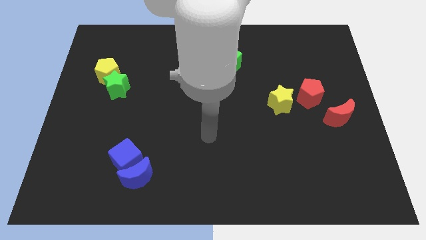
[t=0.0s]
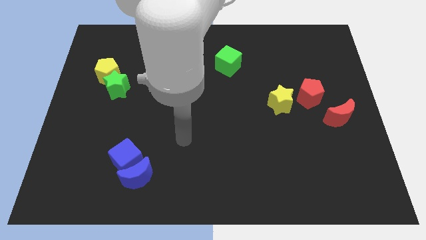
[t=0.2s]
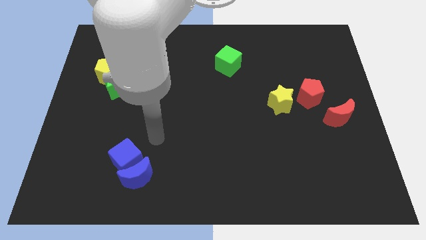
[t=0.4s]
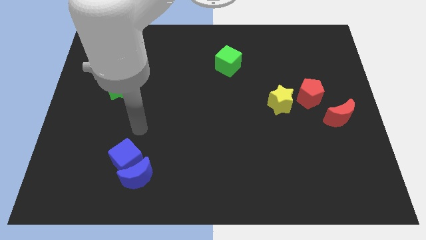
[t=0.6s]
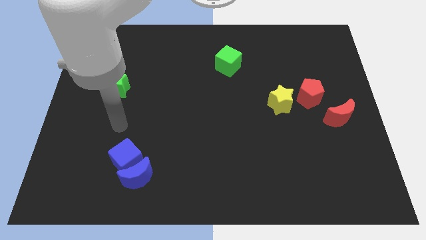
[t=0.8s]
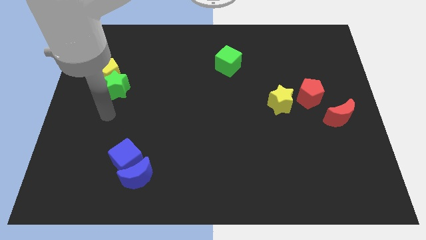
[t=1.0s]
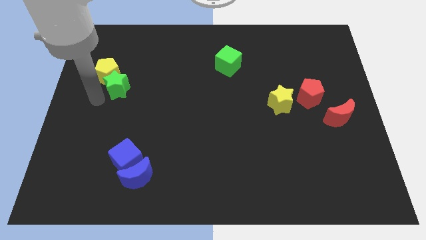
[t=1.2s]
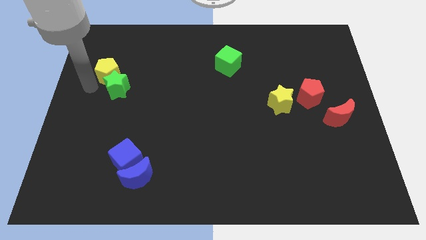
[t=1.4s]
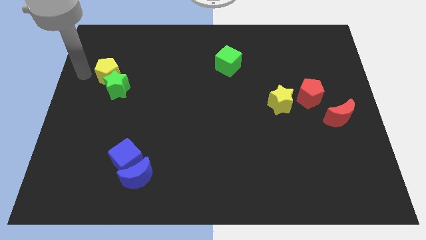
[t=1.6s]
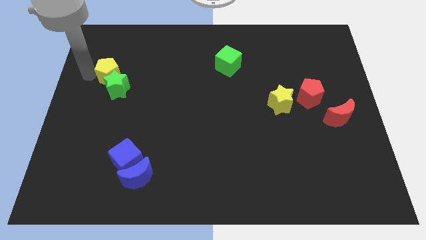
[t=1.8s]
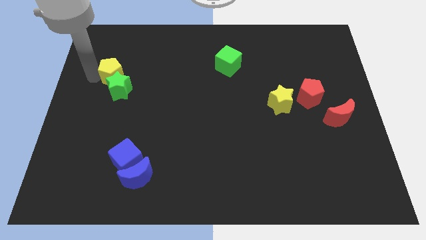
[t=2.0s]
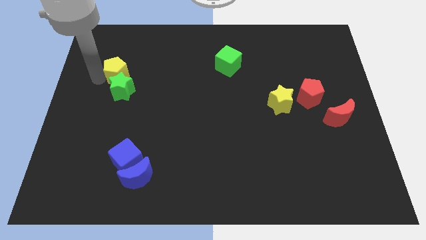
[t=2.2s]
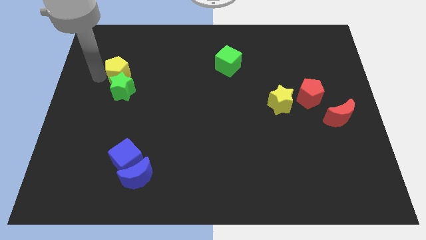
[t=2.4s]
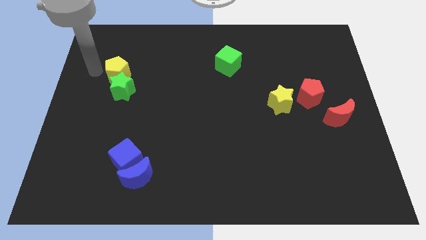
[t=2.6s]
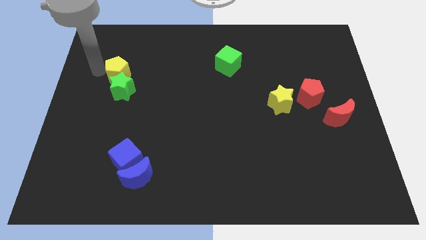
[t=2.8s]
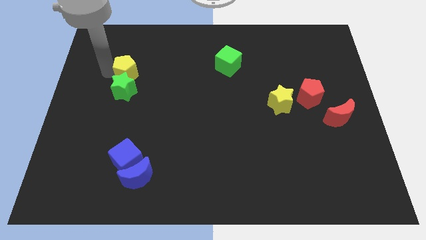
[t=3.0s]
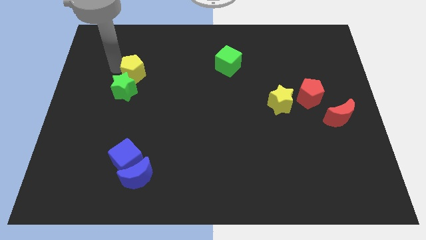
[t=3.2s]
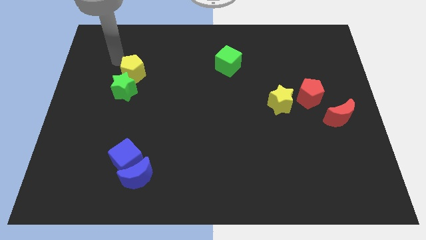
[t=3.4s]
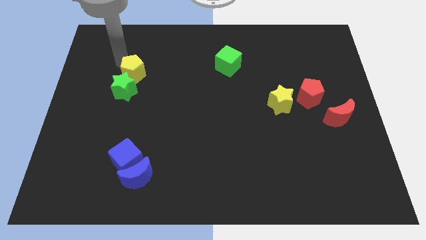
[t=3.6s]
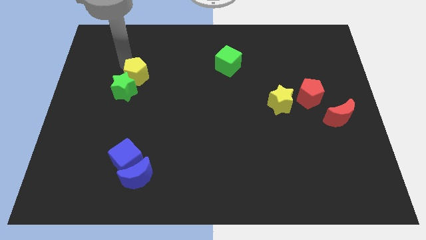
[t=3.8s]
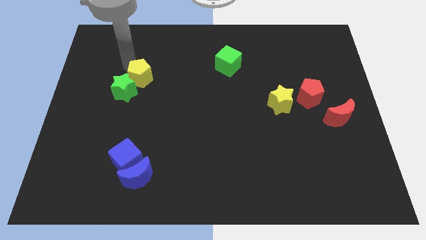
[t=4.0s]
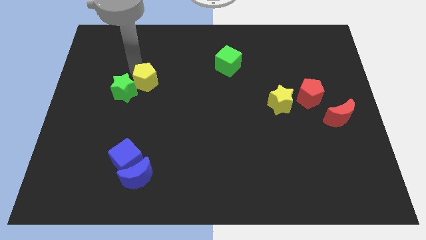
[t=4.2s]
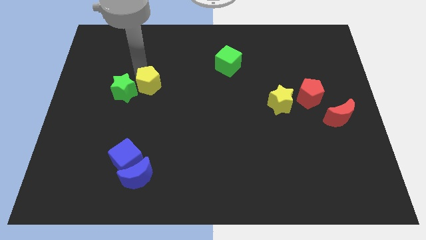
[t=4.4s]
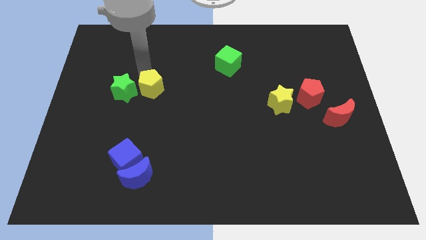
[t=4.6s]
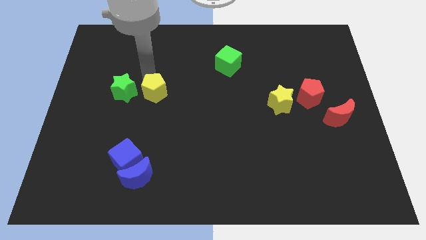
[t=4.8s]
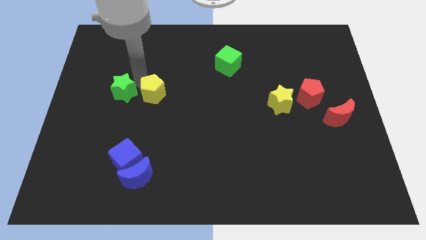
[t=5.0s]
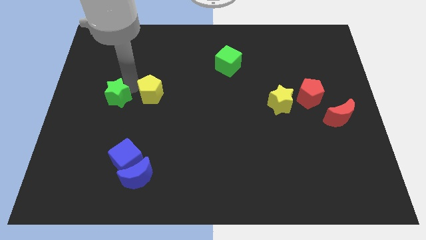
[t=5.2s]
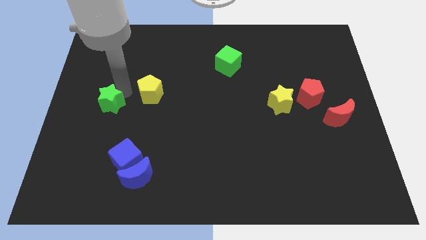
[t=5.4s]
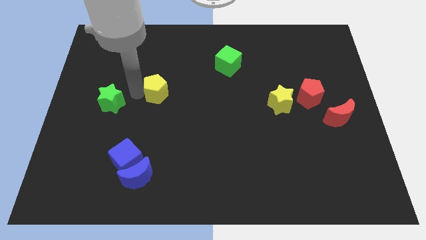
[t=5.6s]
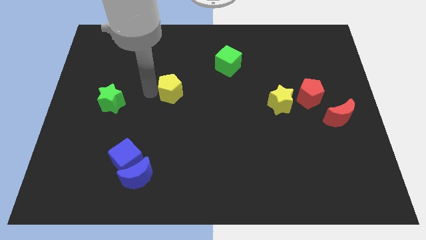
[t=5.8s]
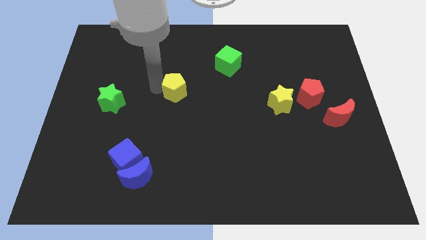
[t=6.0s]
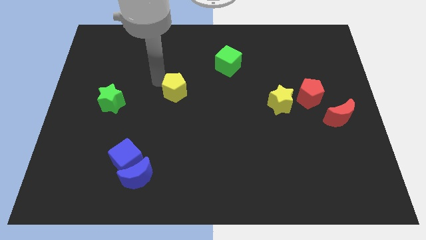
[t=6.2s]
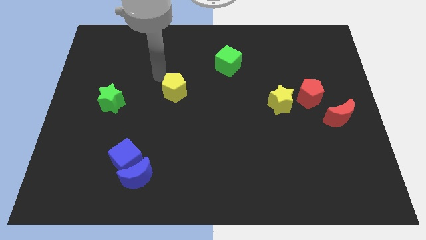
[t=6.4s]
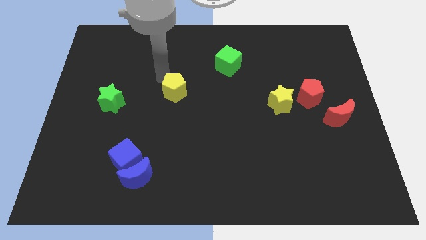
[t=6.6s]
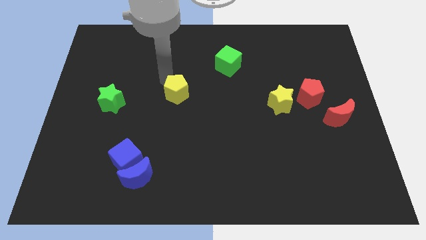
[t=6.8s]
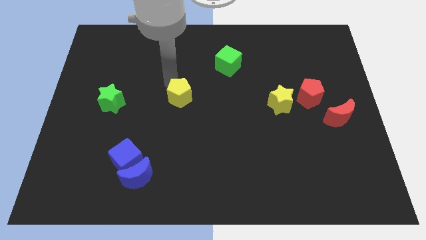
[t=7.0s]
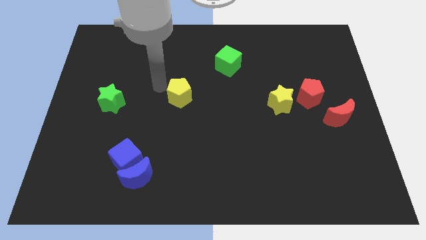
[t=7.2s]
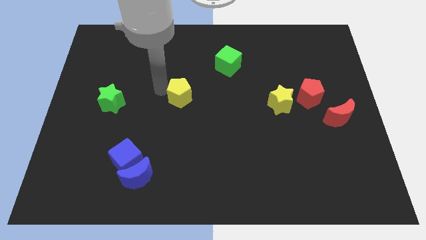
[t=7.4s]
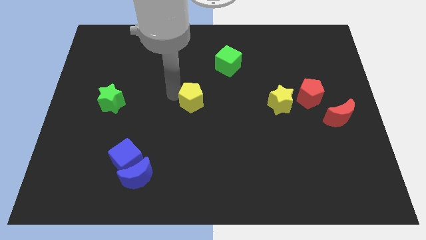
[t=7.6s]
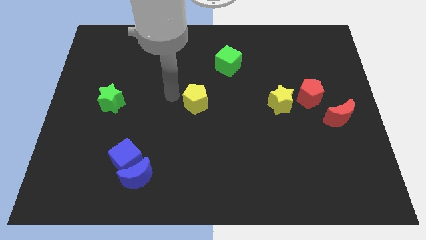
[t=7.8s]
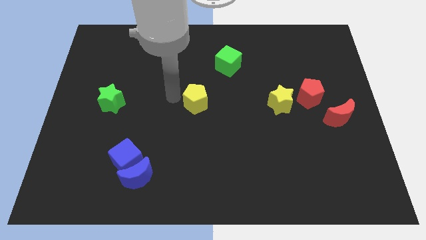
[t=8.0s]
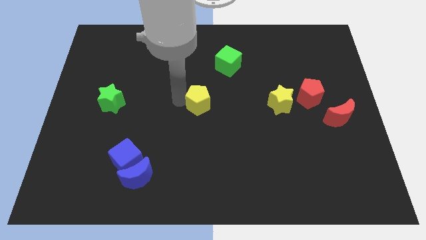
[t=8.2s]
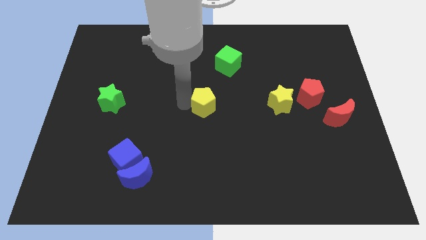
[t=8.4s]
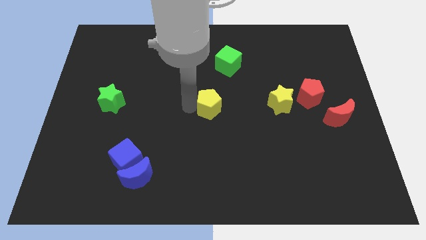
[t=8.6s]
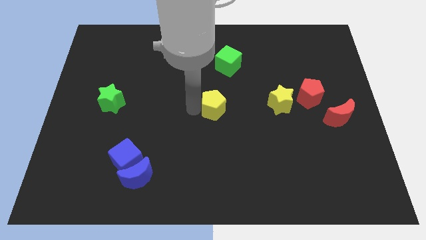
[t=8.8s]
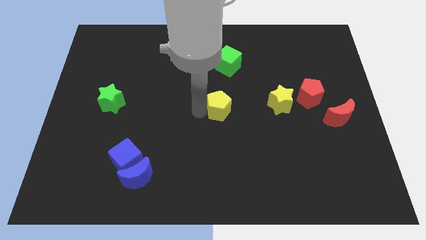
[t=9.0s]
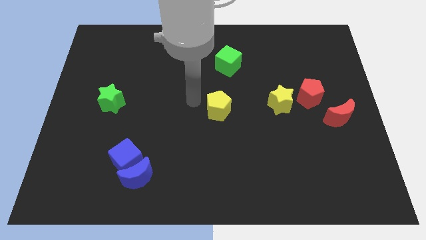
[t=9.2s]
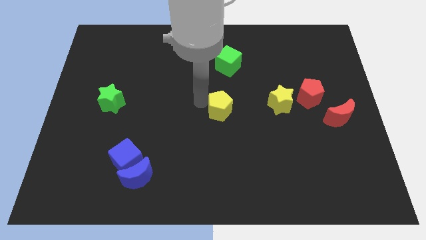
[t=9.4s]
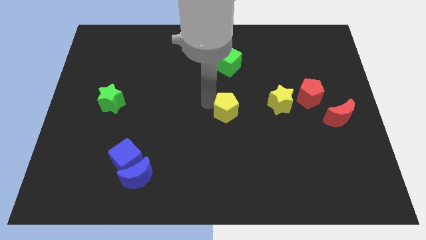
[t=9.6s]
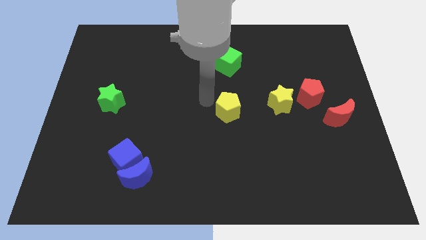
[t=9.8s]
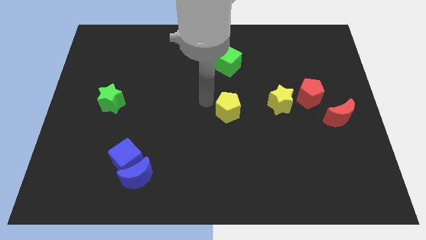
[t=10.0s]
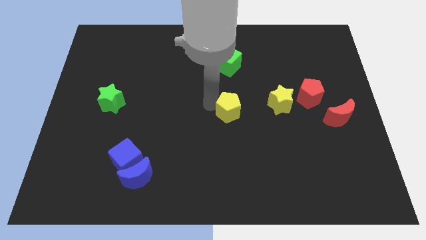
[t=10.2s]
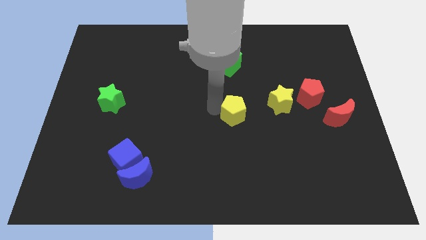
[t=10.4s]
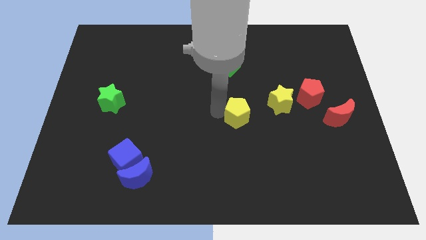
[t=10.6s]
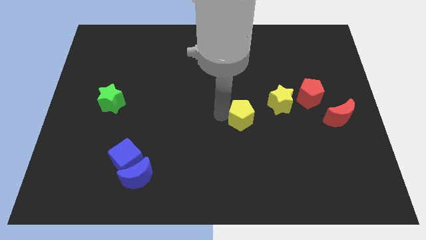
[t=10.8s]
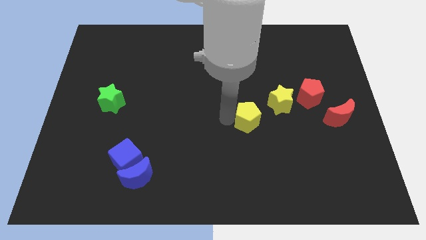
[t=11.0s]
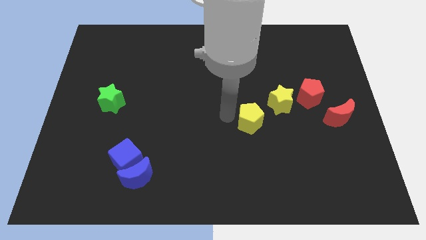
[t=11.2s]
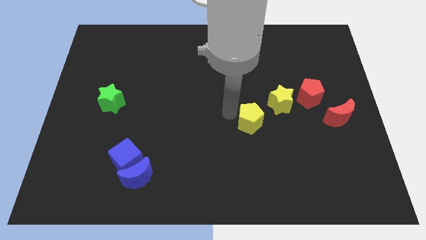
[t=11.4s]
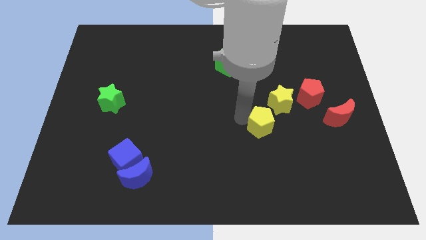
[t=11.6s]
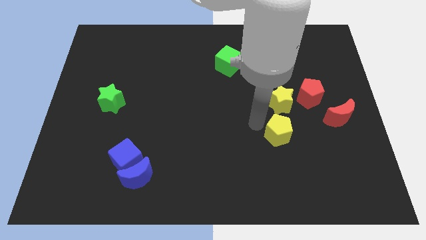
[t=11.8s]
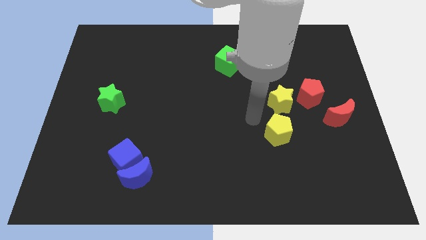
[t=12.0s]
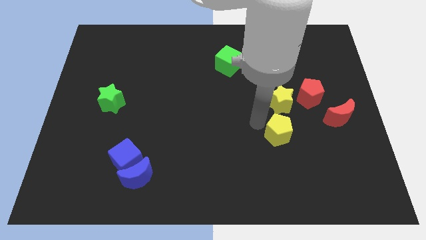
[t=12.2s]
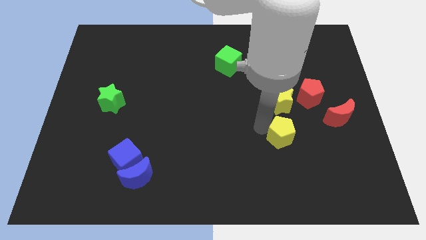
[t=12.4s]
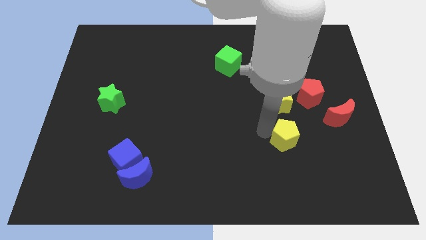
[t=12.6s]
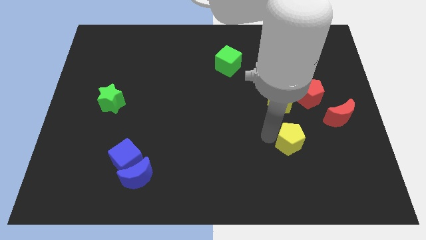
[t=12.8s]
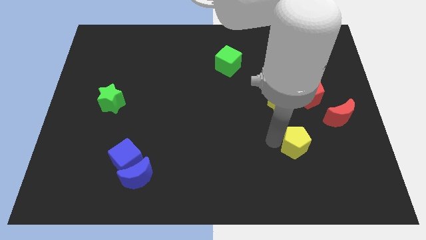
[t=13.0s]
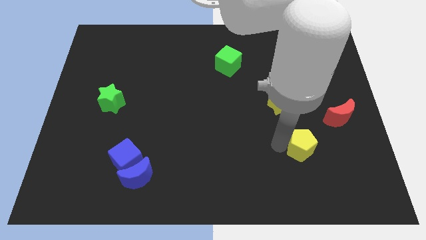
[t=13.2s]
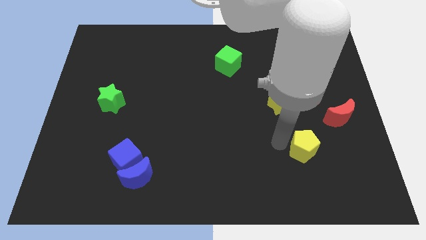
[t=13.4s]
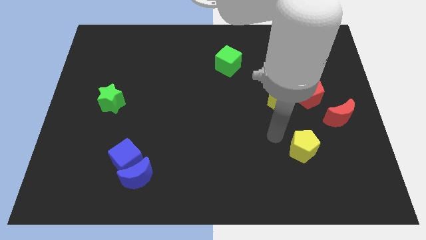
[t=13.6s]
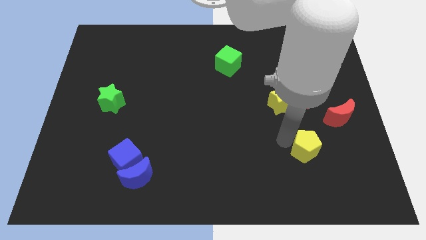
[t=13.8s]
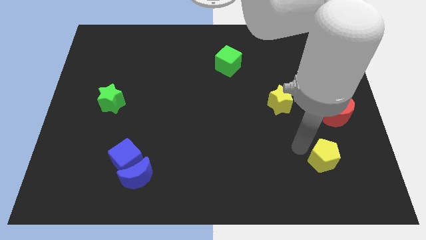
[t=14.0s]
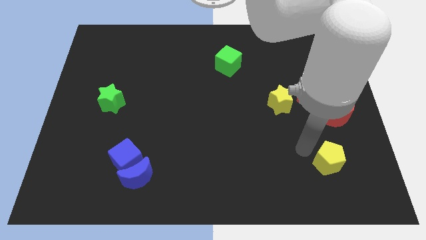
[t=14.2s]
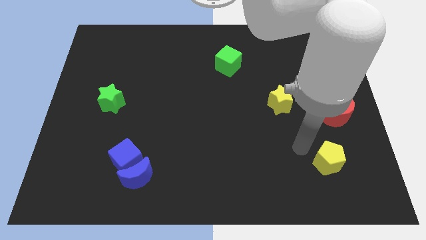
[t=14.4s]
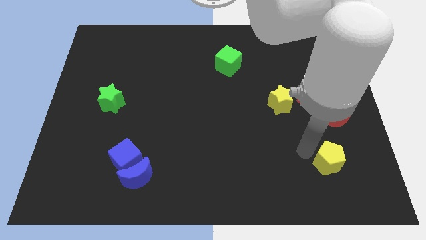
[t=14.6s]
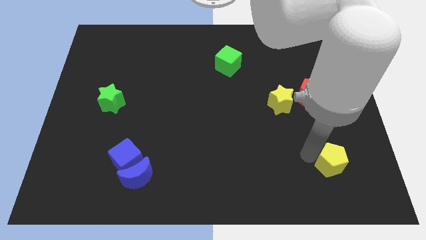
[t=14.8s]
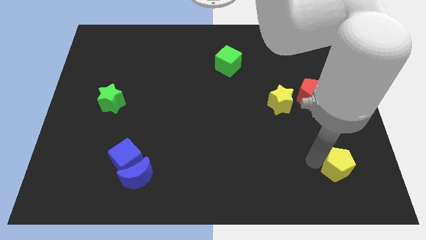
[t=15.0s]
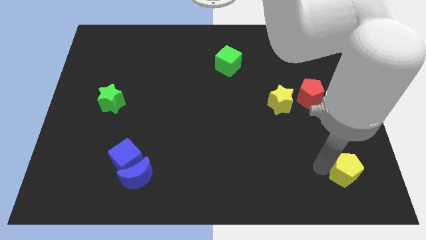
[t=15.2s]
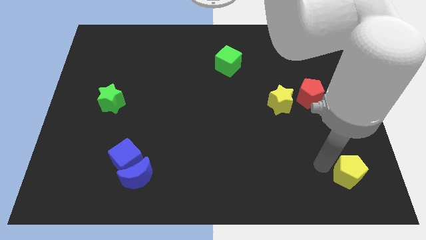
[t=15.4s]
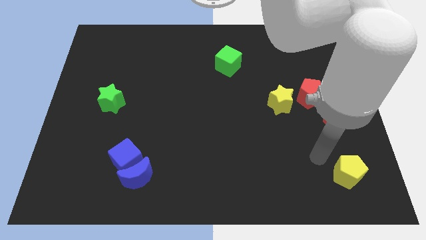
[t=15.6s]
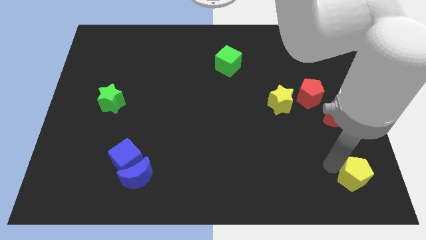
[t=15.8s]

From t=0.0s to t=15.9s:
push the yellow pentagon to the bottom right of the board
